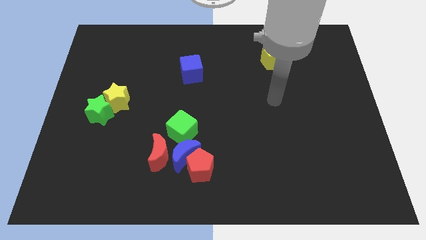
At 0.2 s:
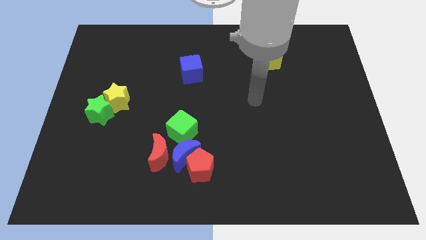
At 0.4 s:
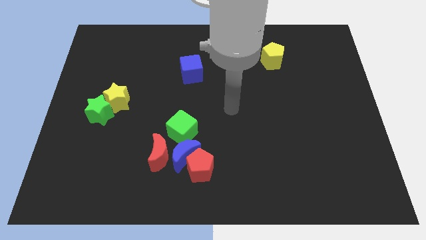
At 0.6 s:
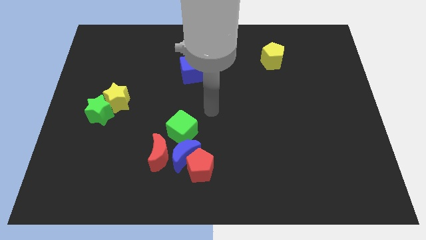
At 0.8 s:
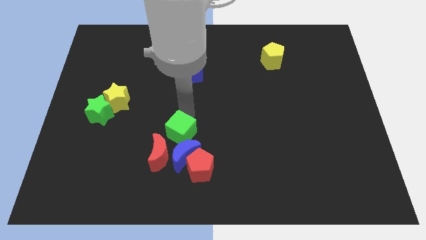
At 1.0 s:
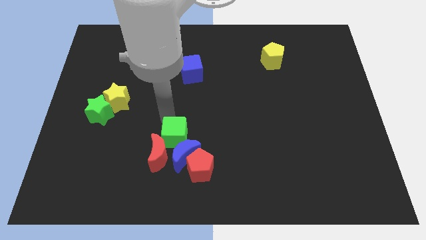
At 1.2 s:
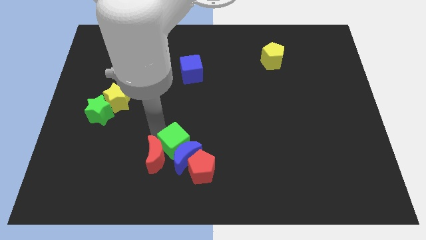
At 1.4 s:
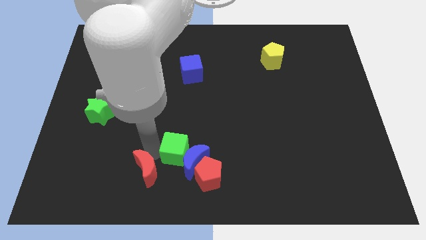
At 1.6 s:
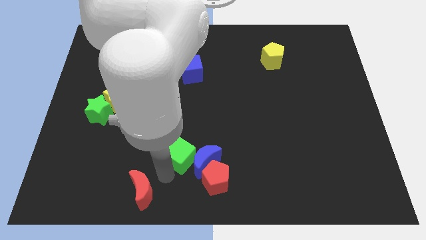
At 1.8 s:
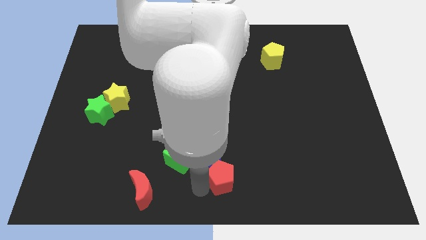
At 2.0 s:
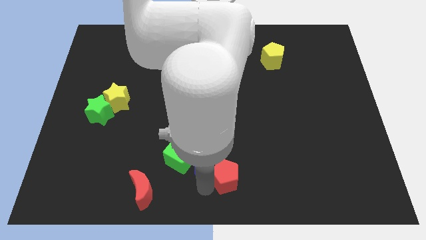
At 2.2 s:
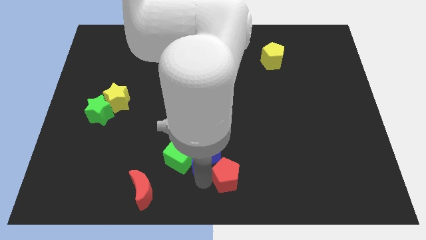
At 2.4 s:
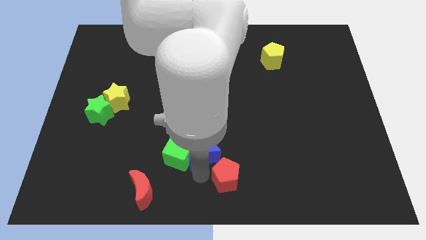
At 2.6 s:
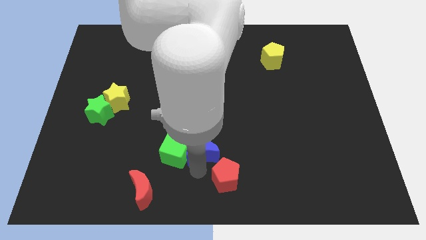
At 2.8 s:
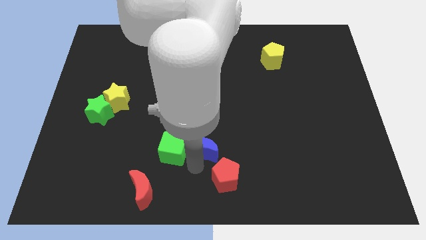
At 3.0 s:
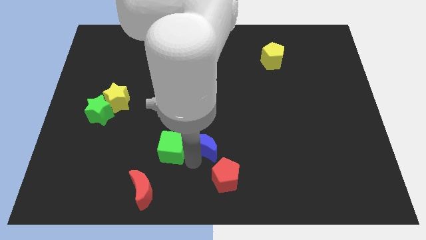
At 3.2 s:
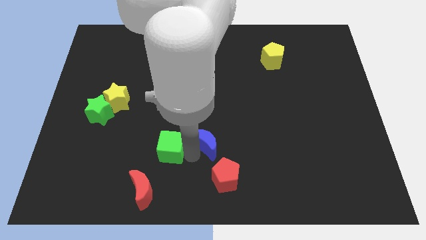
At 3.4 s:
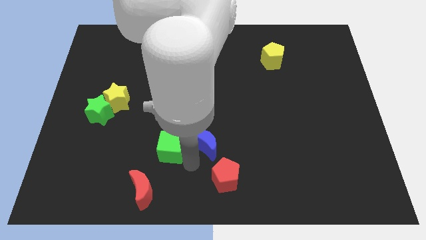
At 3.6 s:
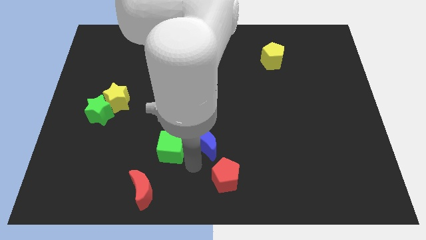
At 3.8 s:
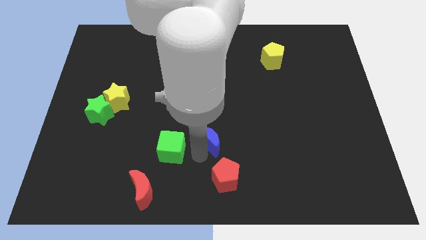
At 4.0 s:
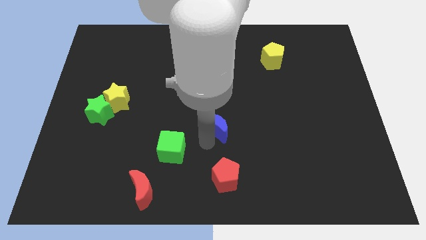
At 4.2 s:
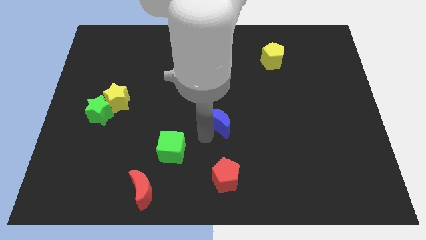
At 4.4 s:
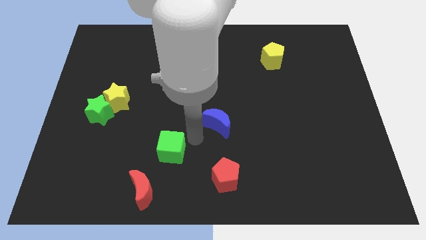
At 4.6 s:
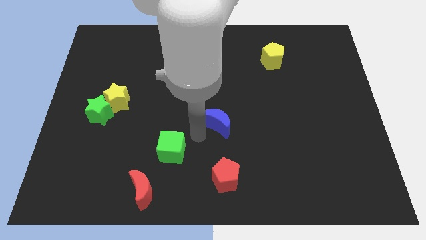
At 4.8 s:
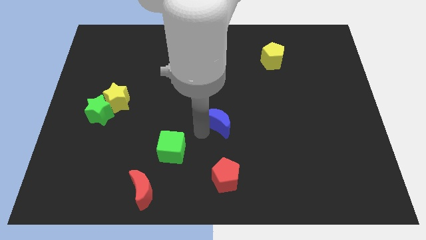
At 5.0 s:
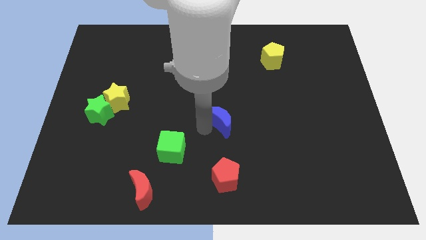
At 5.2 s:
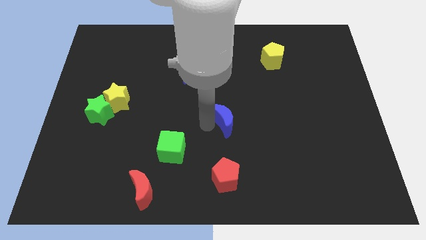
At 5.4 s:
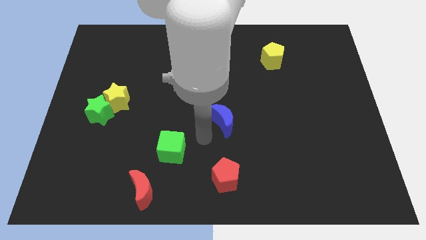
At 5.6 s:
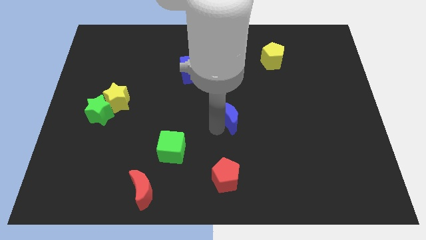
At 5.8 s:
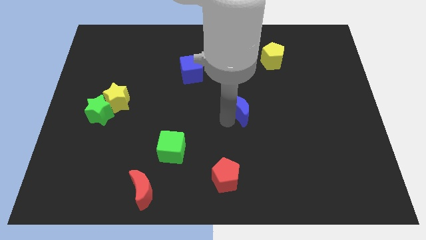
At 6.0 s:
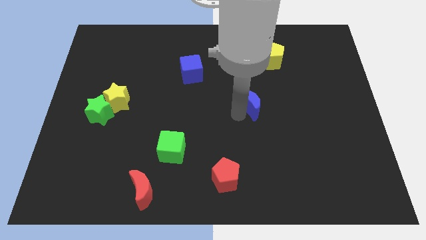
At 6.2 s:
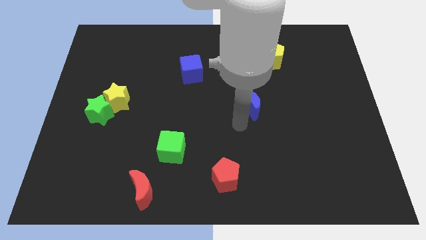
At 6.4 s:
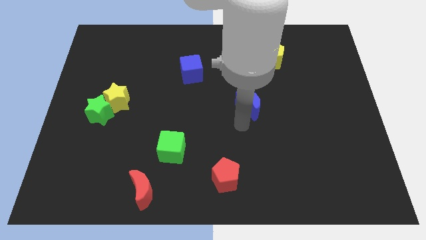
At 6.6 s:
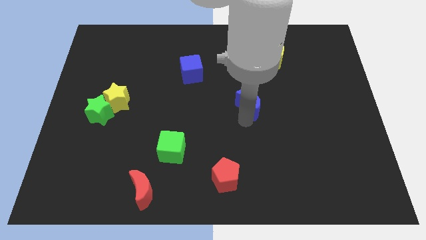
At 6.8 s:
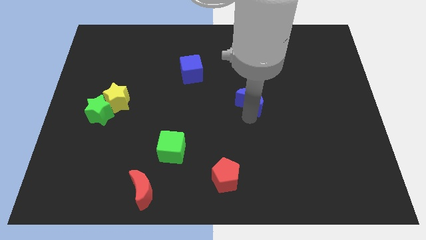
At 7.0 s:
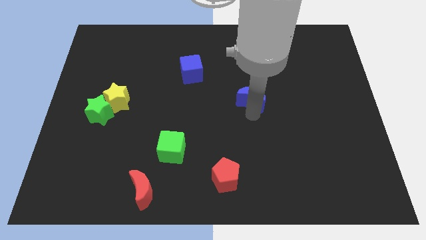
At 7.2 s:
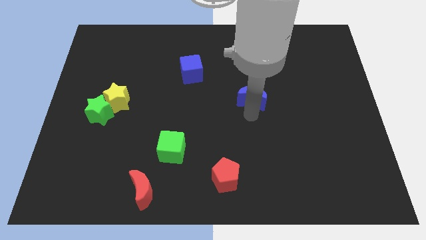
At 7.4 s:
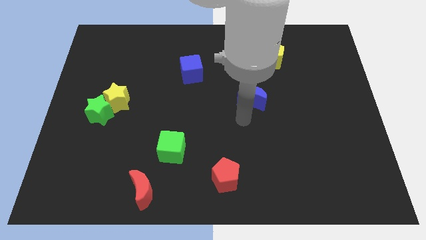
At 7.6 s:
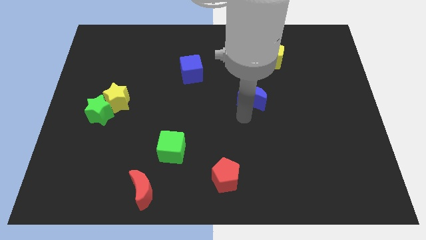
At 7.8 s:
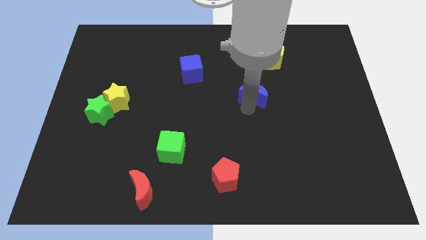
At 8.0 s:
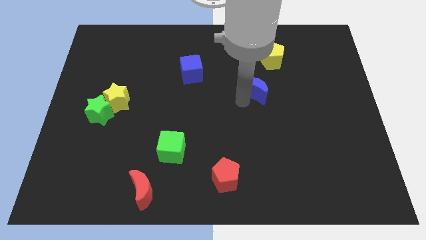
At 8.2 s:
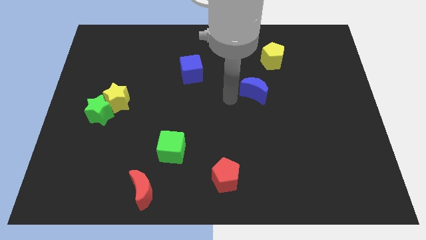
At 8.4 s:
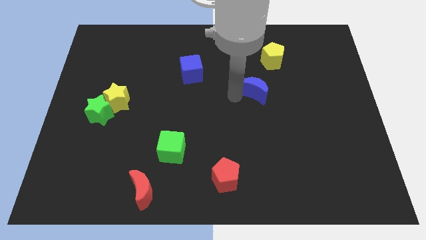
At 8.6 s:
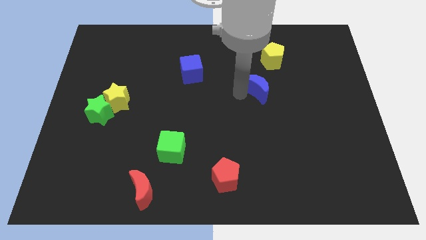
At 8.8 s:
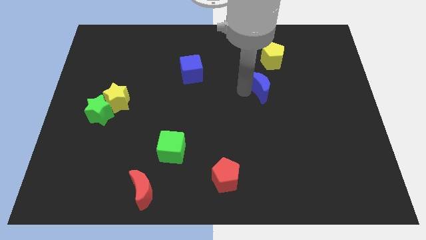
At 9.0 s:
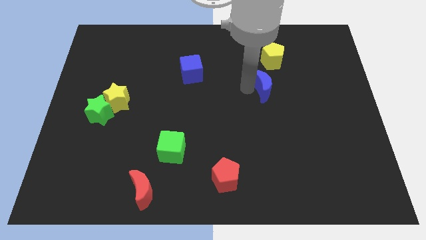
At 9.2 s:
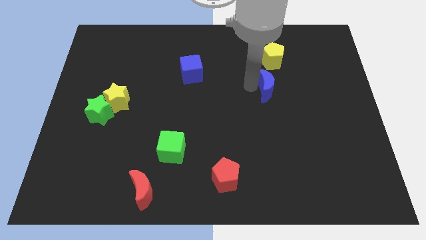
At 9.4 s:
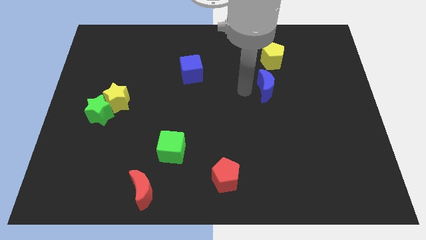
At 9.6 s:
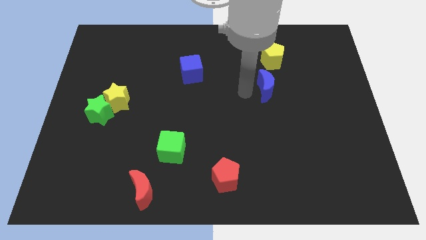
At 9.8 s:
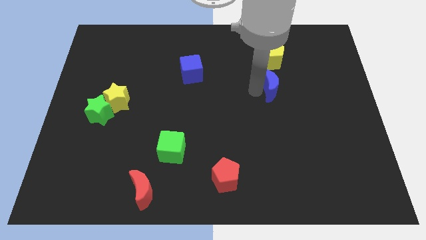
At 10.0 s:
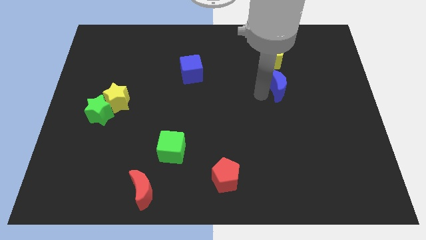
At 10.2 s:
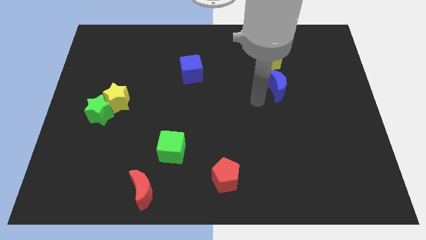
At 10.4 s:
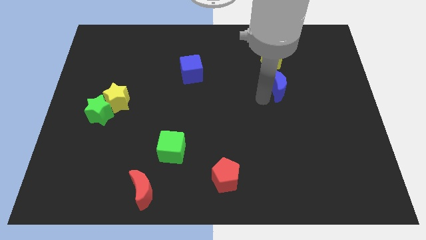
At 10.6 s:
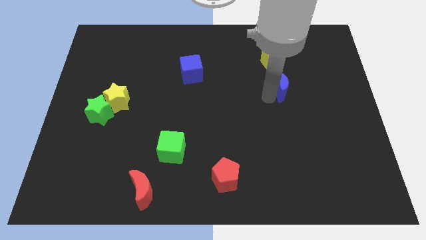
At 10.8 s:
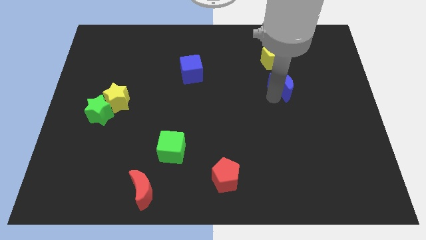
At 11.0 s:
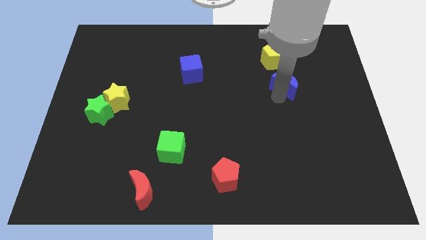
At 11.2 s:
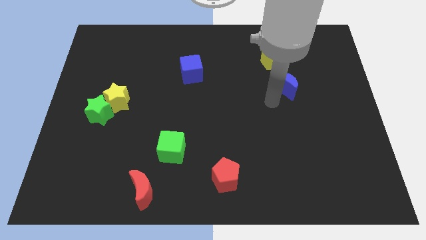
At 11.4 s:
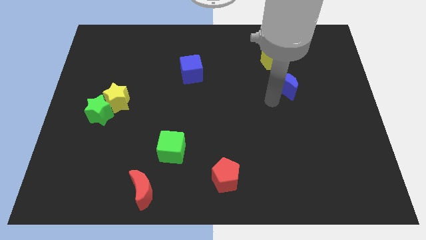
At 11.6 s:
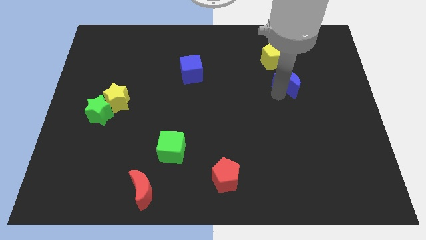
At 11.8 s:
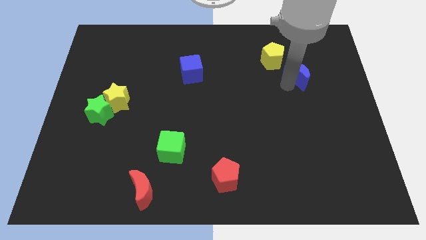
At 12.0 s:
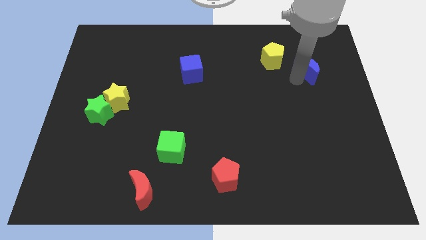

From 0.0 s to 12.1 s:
slide the blue moon to the right side of the yellow pentagon
